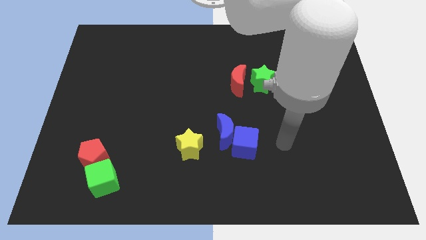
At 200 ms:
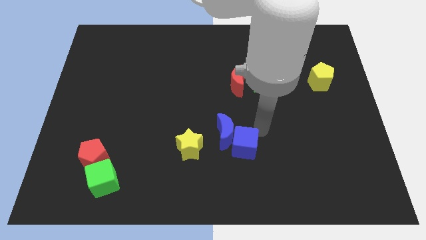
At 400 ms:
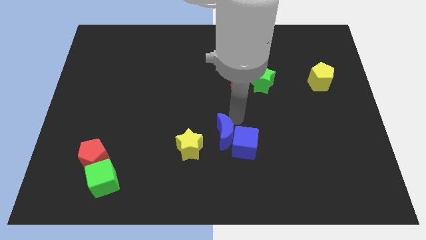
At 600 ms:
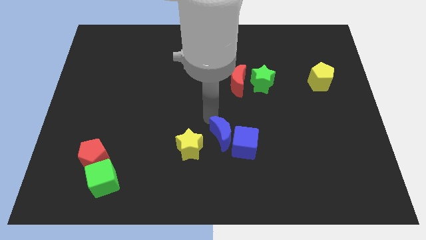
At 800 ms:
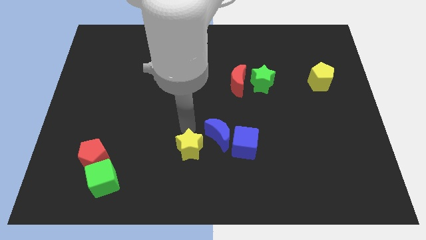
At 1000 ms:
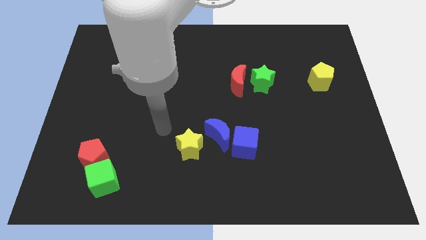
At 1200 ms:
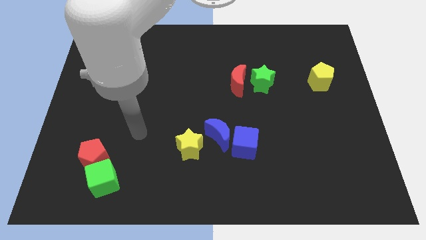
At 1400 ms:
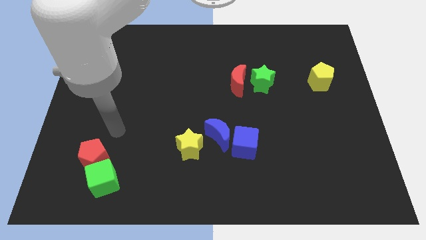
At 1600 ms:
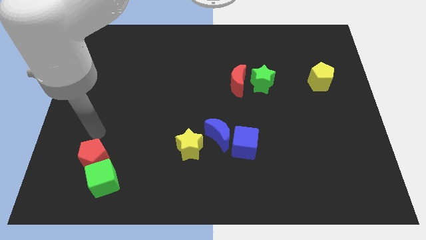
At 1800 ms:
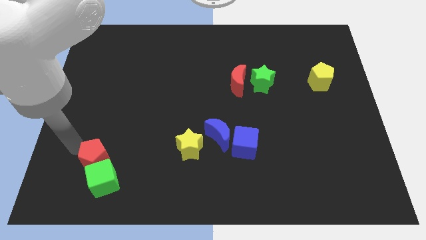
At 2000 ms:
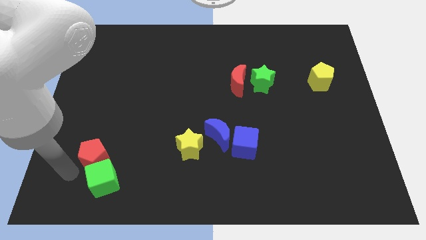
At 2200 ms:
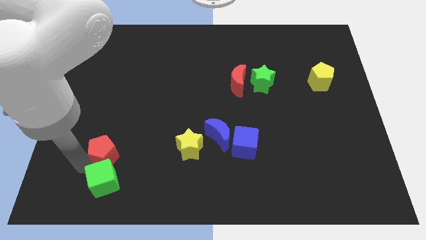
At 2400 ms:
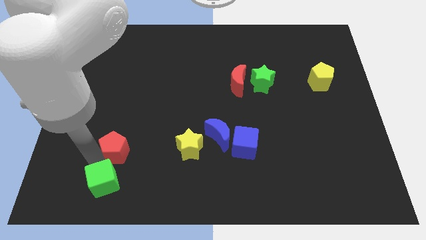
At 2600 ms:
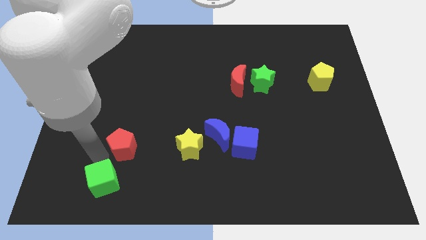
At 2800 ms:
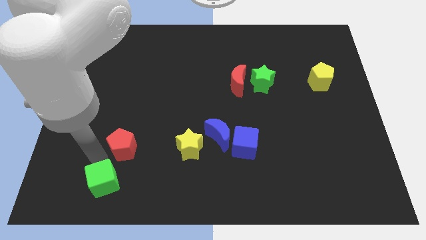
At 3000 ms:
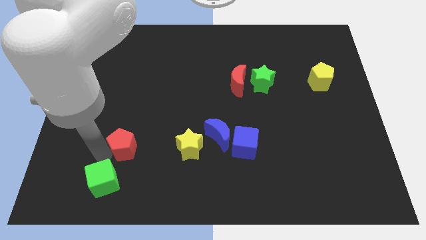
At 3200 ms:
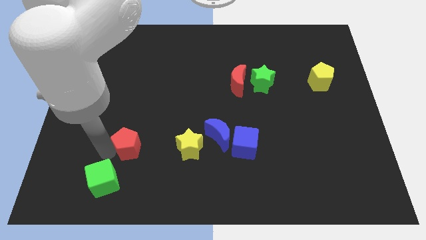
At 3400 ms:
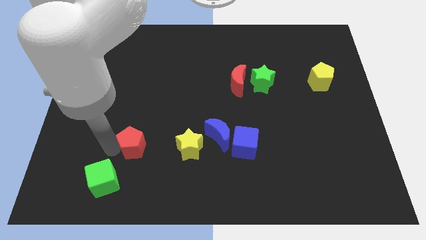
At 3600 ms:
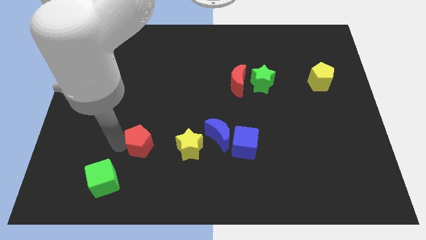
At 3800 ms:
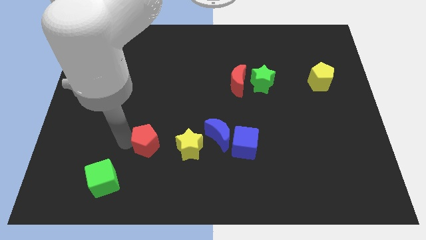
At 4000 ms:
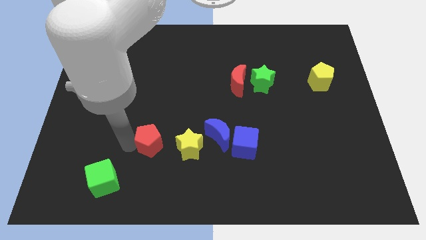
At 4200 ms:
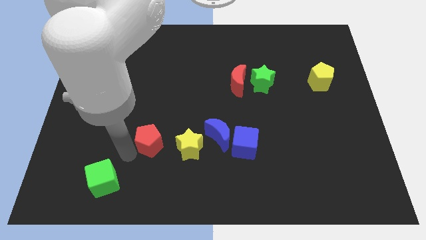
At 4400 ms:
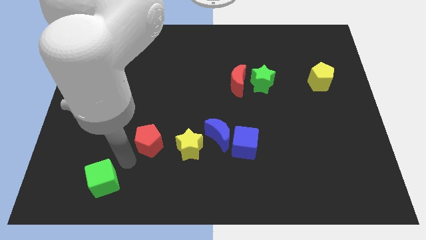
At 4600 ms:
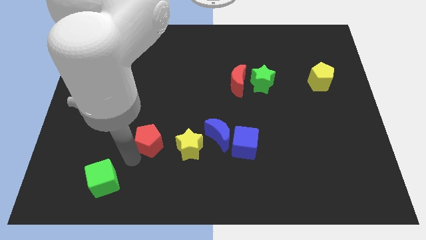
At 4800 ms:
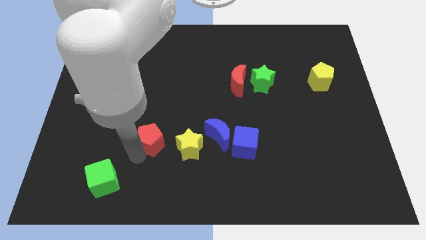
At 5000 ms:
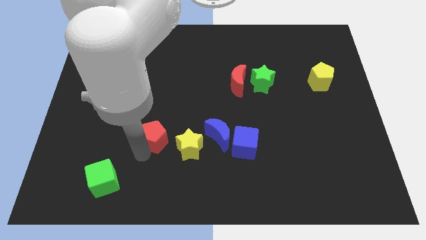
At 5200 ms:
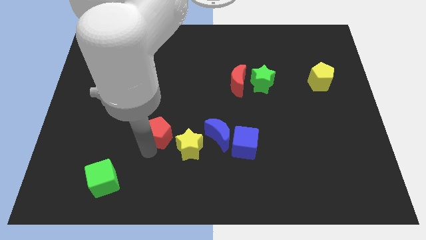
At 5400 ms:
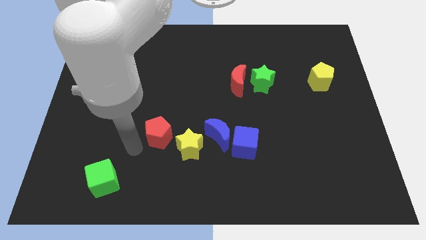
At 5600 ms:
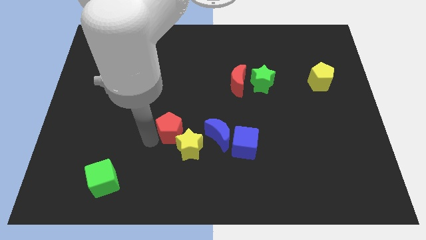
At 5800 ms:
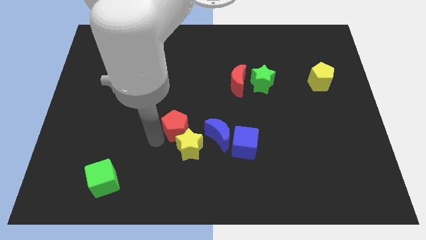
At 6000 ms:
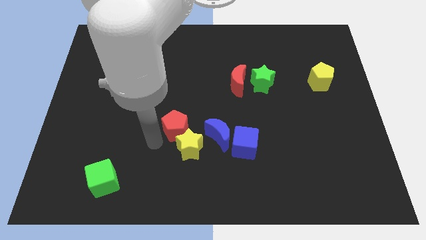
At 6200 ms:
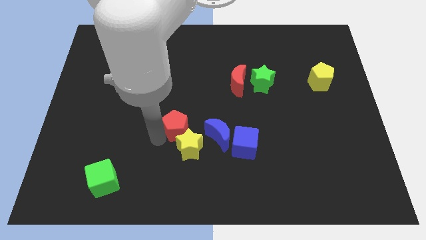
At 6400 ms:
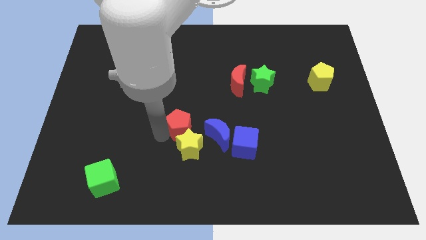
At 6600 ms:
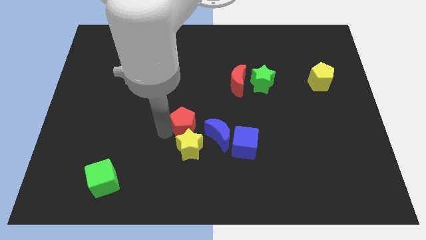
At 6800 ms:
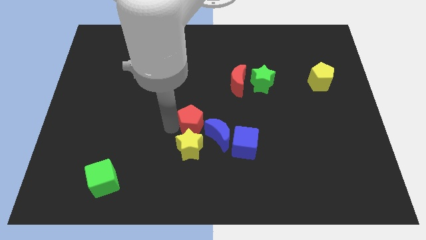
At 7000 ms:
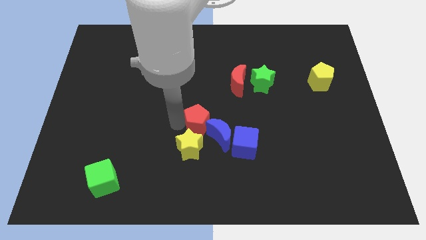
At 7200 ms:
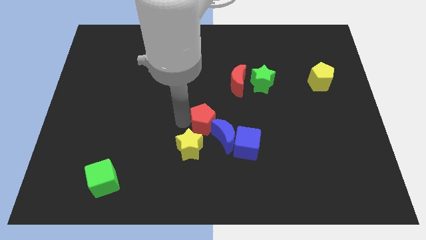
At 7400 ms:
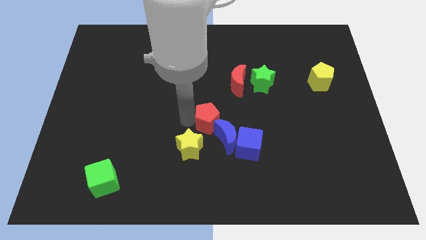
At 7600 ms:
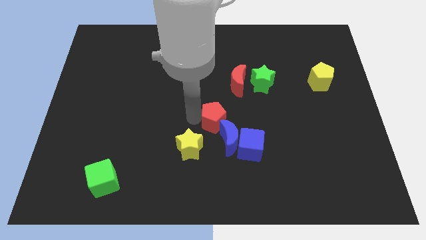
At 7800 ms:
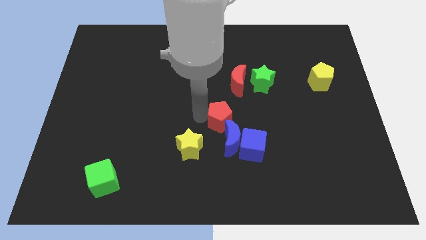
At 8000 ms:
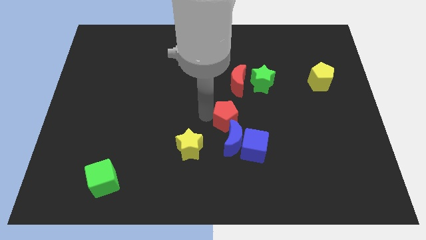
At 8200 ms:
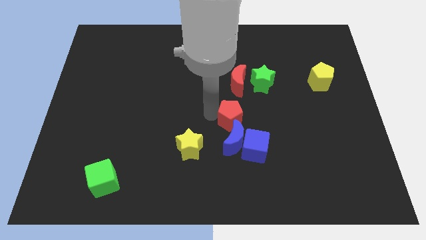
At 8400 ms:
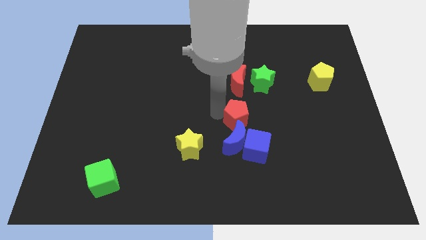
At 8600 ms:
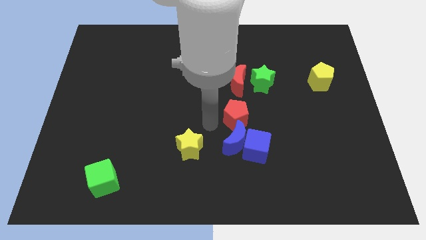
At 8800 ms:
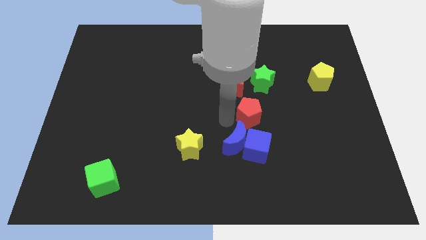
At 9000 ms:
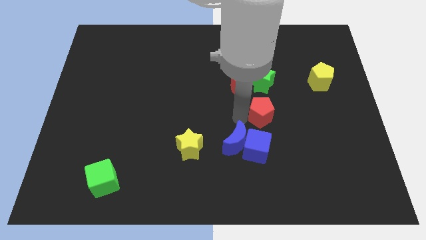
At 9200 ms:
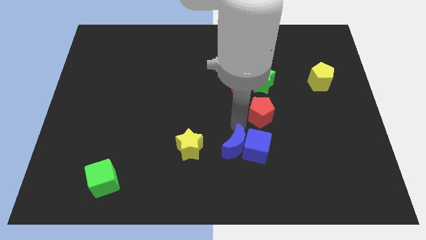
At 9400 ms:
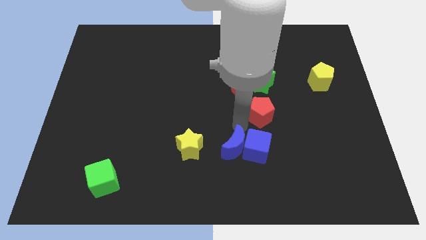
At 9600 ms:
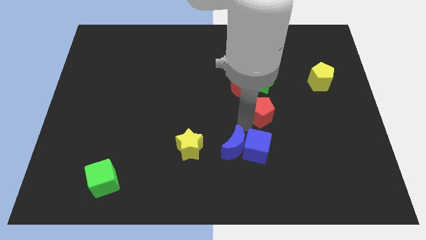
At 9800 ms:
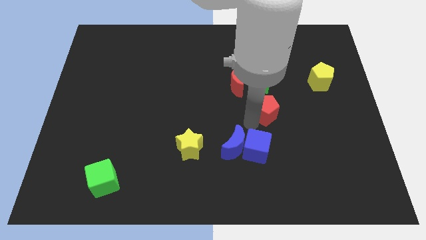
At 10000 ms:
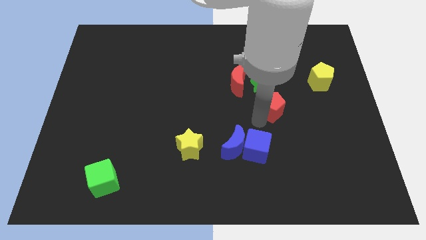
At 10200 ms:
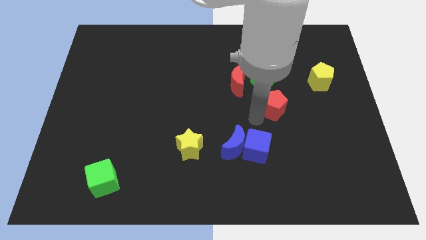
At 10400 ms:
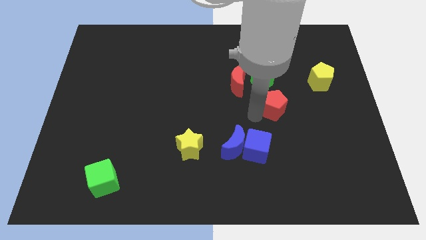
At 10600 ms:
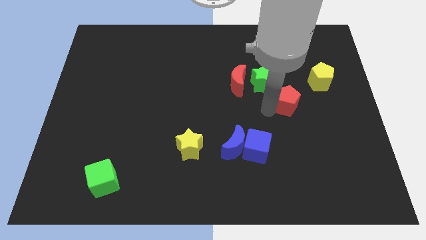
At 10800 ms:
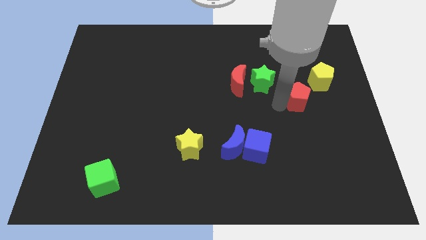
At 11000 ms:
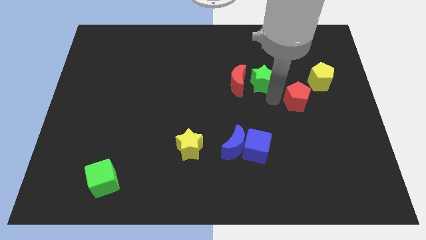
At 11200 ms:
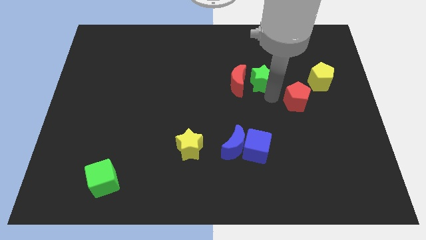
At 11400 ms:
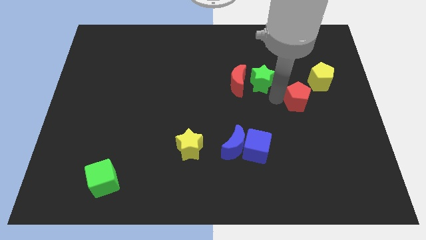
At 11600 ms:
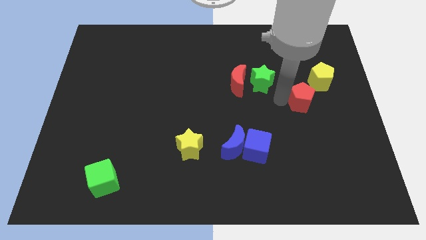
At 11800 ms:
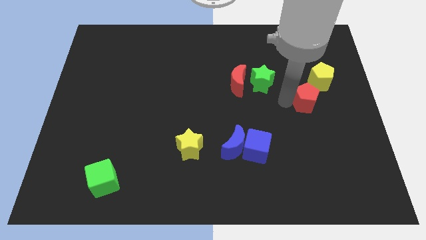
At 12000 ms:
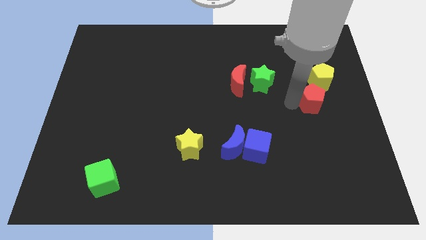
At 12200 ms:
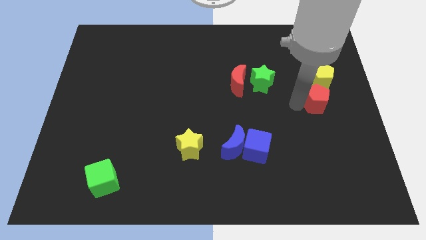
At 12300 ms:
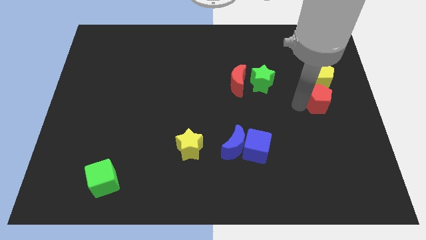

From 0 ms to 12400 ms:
slide the red pentagon to the right side

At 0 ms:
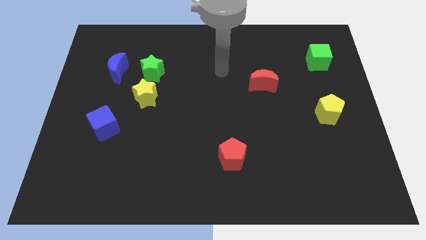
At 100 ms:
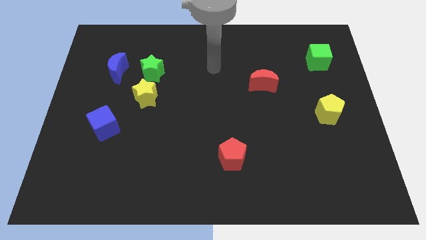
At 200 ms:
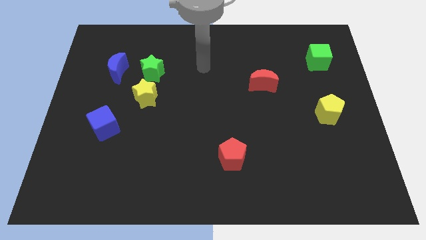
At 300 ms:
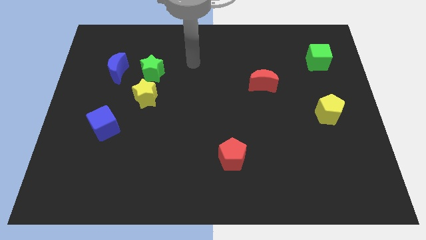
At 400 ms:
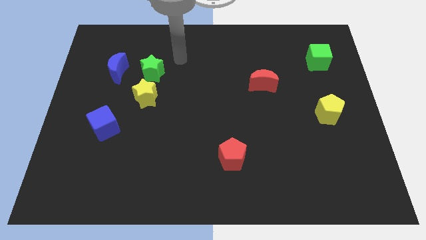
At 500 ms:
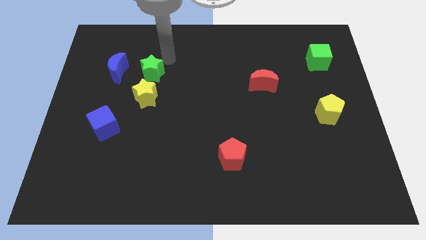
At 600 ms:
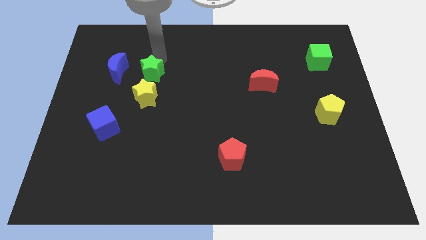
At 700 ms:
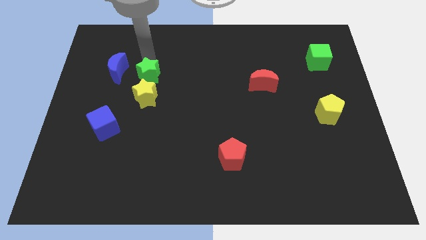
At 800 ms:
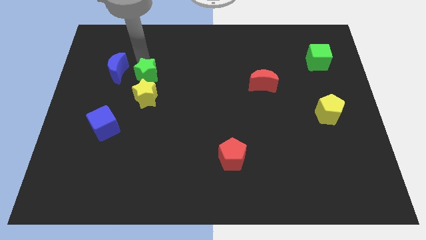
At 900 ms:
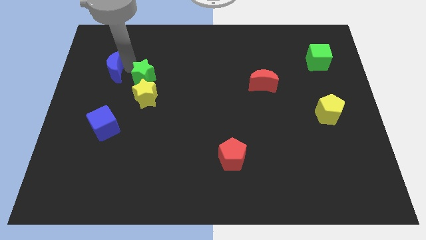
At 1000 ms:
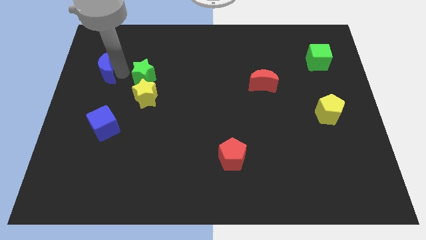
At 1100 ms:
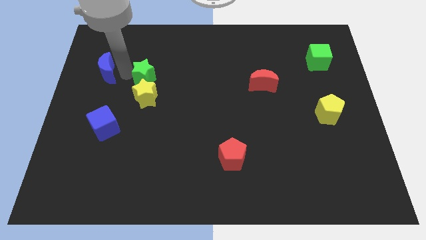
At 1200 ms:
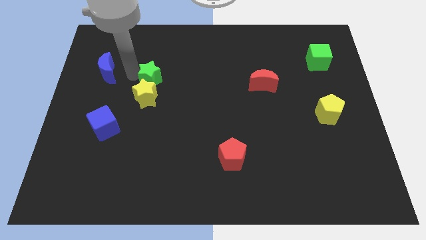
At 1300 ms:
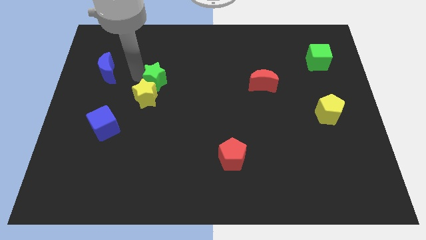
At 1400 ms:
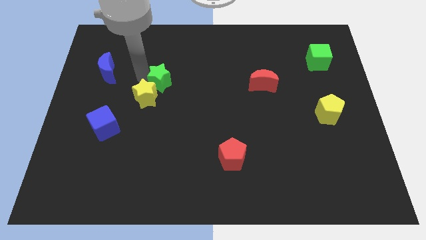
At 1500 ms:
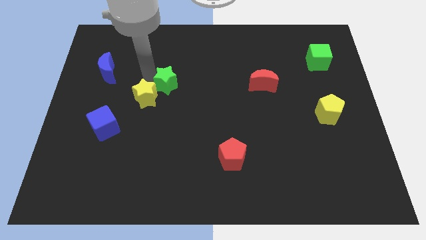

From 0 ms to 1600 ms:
move the green star to the center
